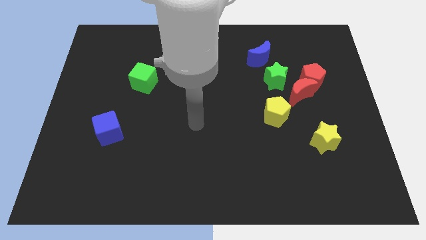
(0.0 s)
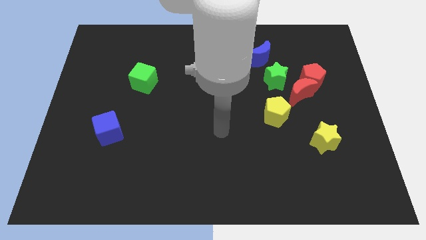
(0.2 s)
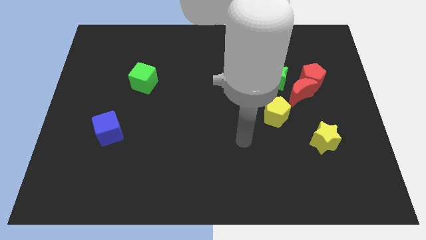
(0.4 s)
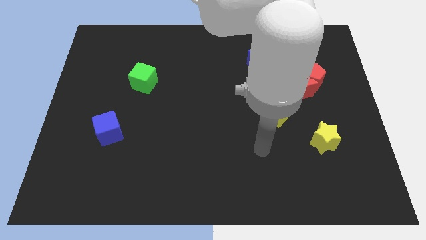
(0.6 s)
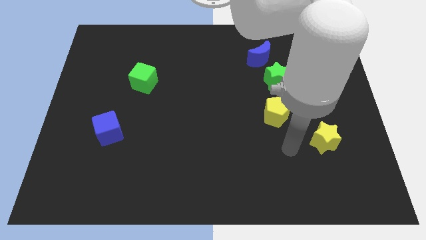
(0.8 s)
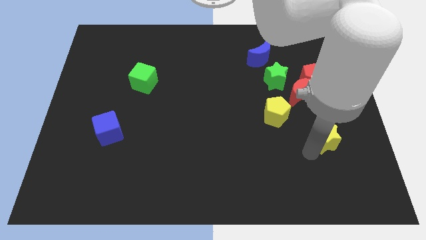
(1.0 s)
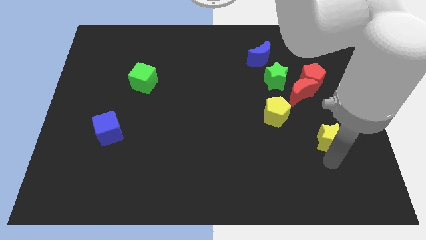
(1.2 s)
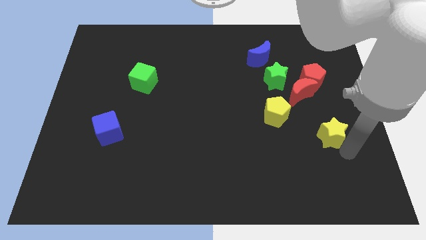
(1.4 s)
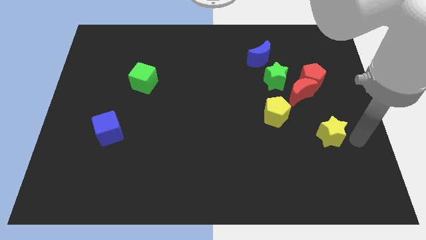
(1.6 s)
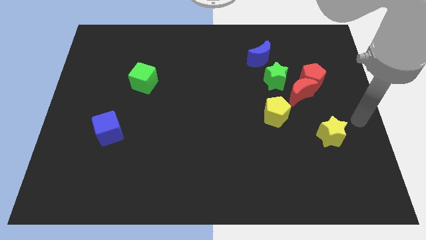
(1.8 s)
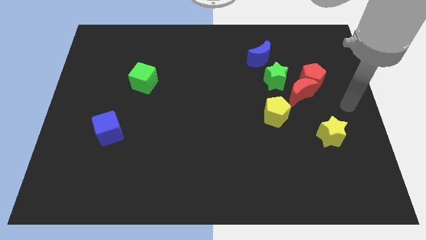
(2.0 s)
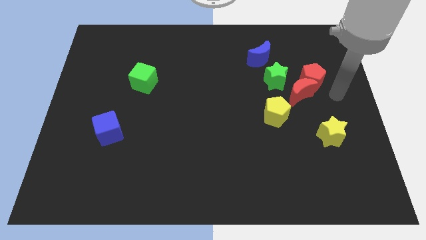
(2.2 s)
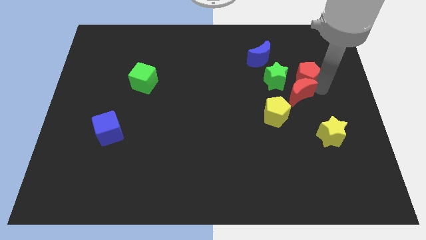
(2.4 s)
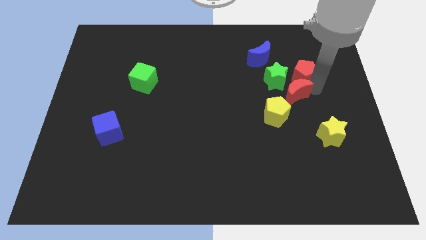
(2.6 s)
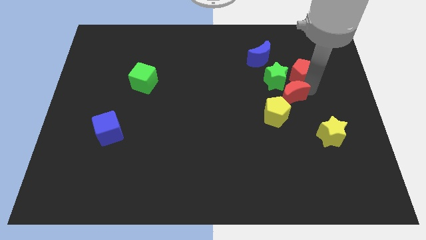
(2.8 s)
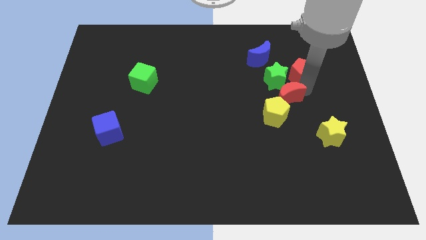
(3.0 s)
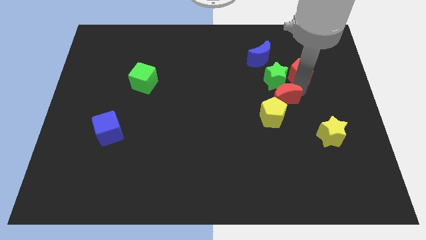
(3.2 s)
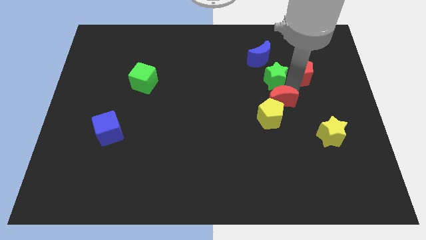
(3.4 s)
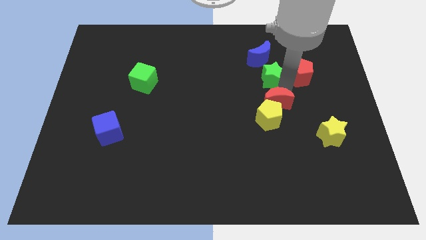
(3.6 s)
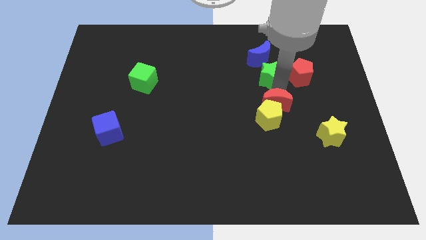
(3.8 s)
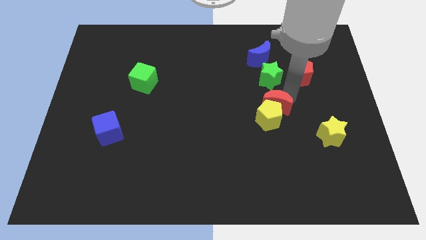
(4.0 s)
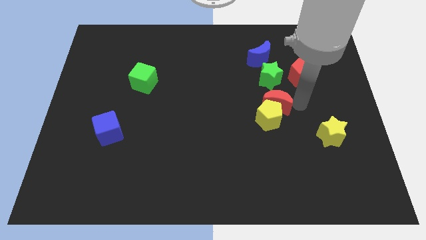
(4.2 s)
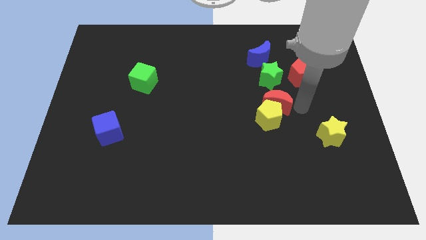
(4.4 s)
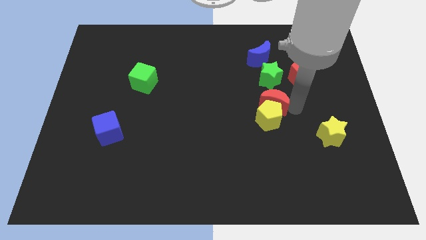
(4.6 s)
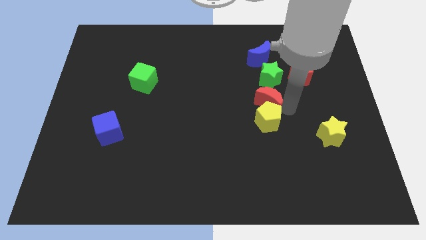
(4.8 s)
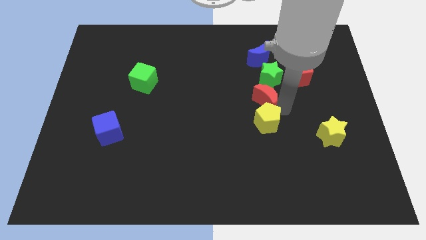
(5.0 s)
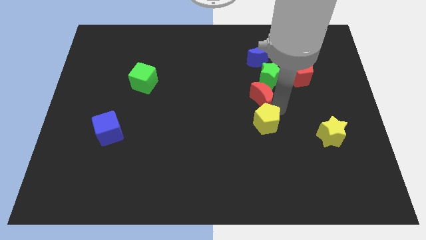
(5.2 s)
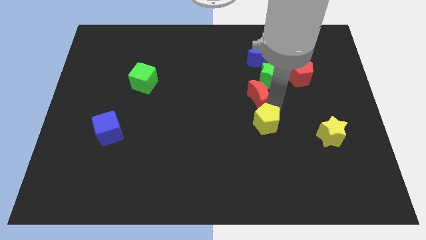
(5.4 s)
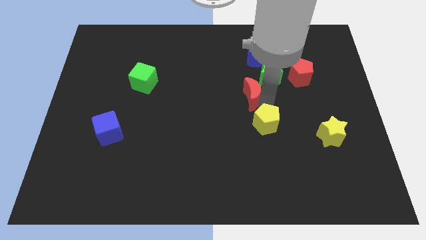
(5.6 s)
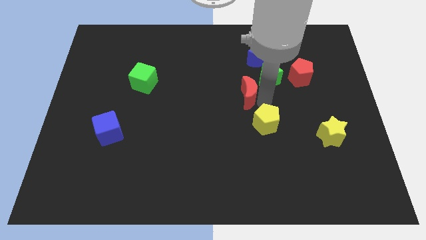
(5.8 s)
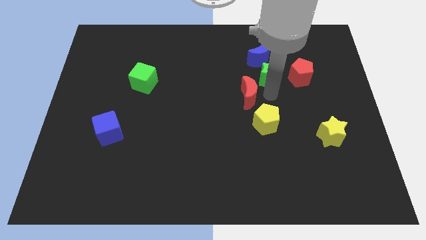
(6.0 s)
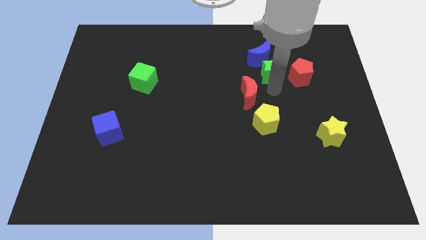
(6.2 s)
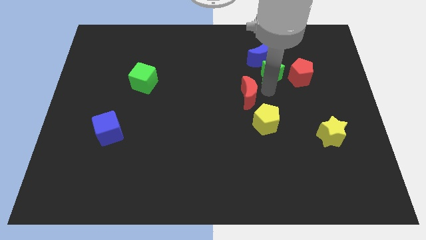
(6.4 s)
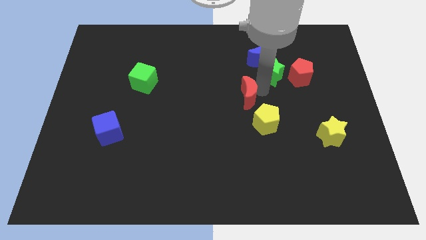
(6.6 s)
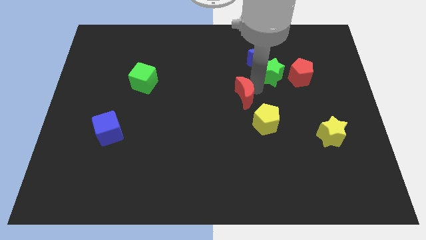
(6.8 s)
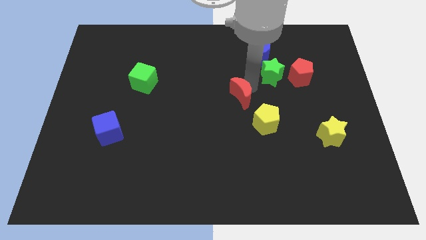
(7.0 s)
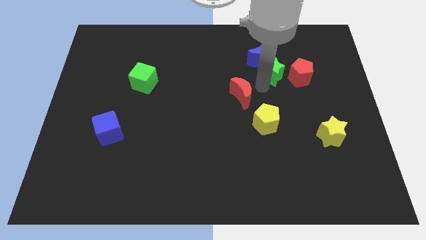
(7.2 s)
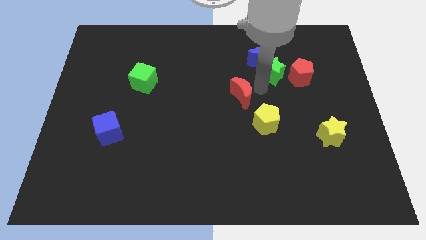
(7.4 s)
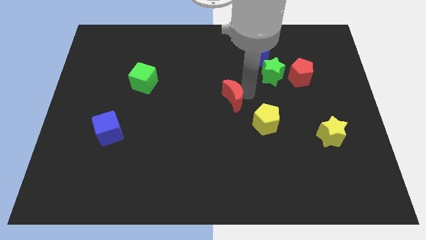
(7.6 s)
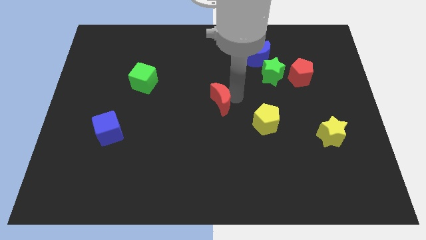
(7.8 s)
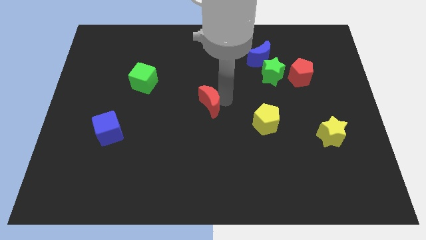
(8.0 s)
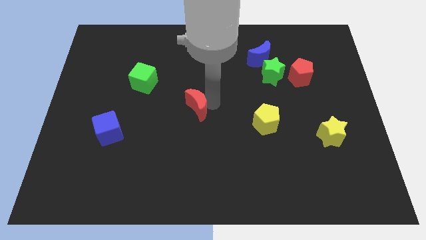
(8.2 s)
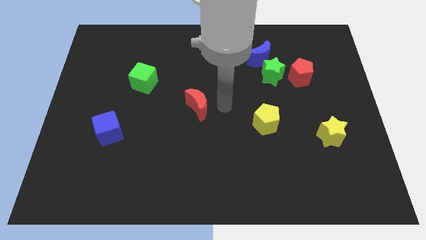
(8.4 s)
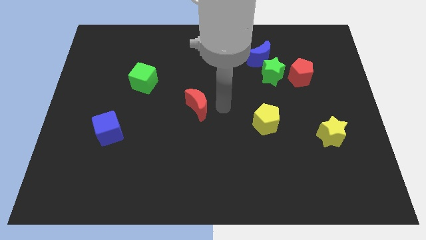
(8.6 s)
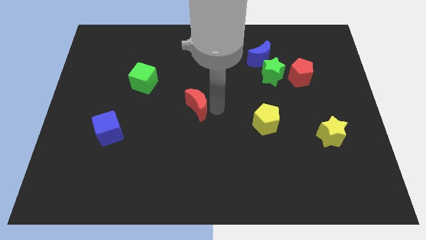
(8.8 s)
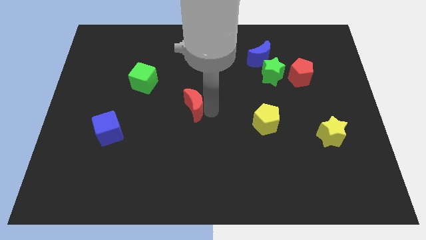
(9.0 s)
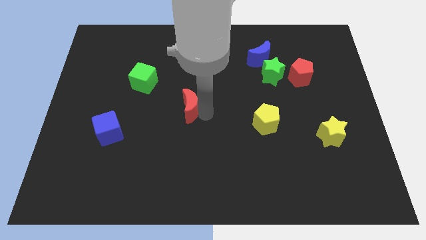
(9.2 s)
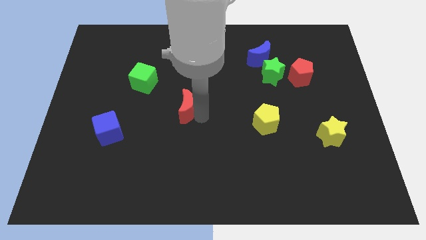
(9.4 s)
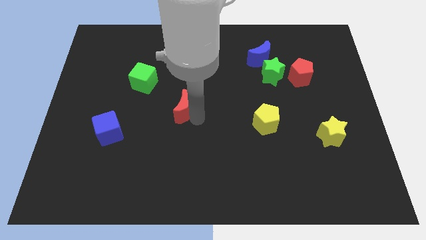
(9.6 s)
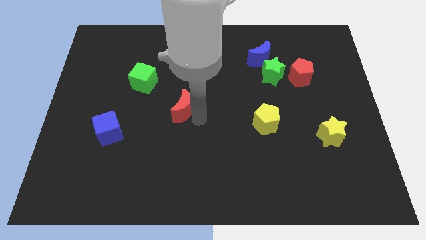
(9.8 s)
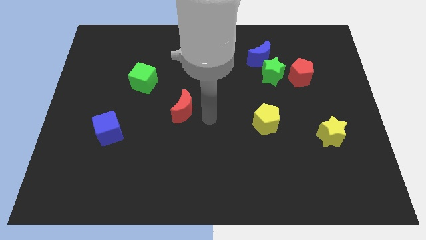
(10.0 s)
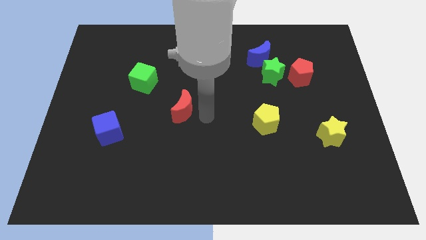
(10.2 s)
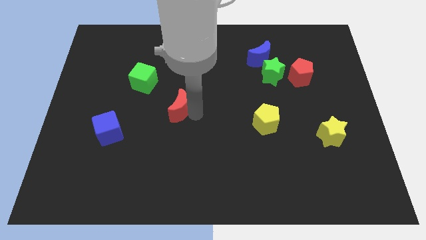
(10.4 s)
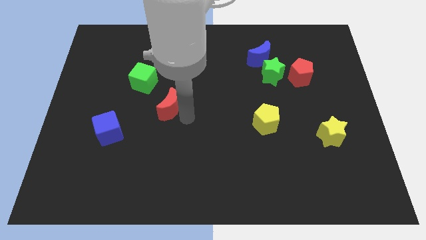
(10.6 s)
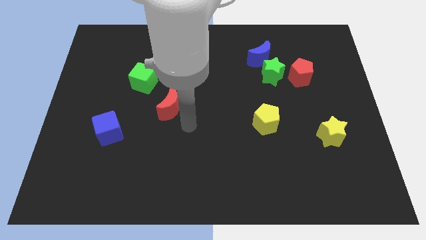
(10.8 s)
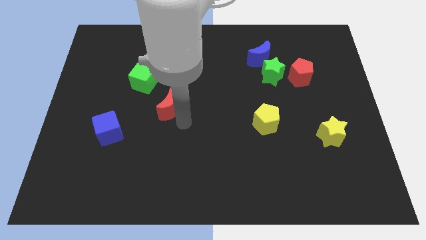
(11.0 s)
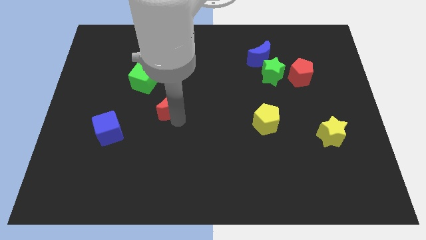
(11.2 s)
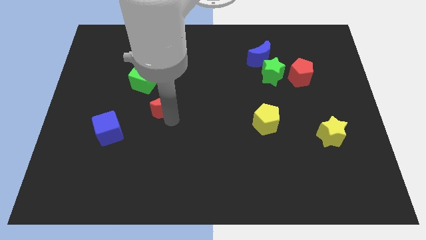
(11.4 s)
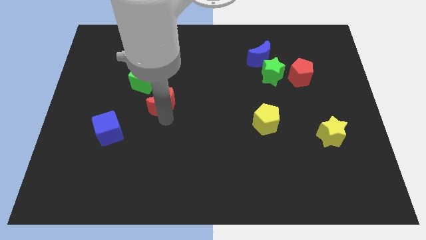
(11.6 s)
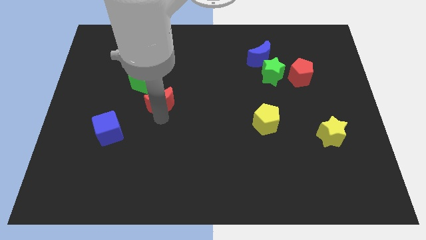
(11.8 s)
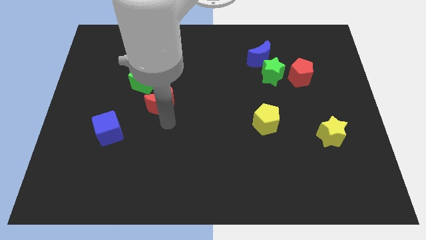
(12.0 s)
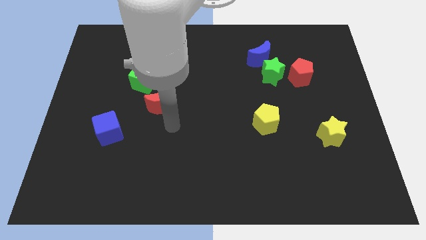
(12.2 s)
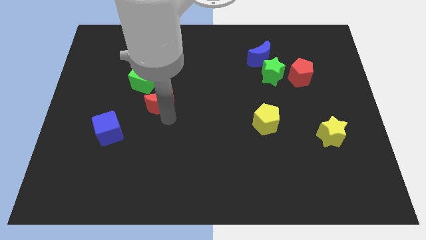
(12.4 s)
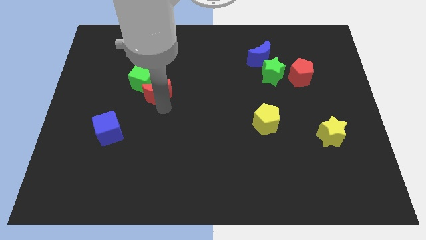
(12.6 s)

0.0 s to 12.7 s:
slide the red moon close to the green cube
